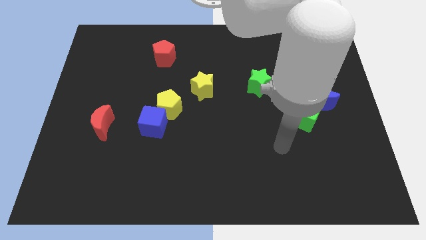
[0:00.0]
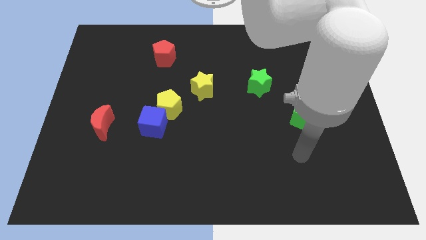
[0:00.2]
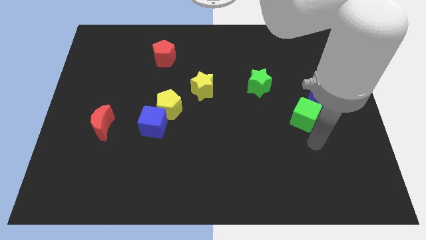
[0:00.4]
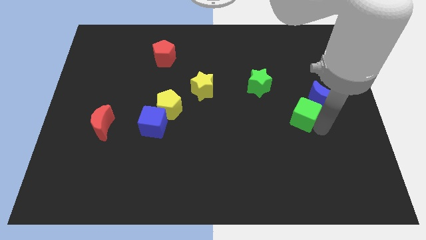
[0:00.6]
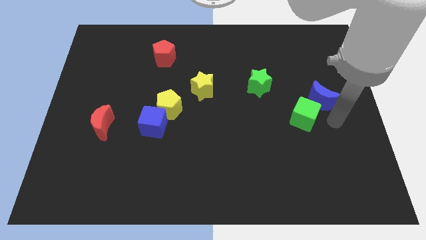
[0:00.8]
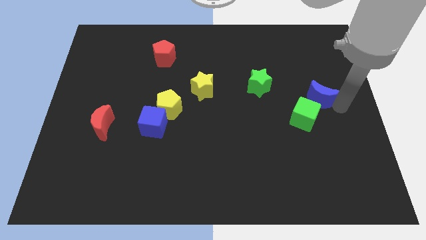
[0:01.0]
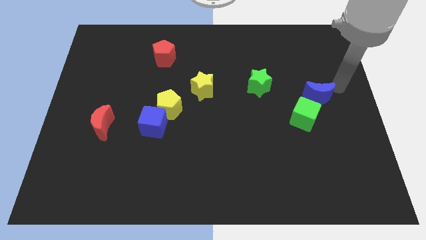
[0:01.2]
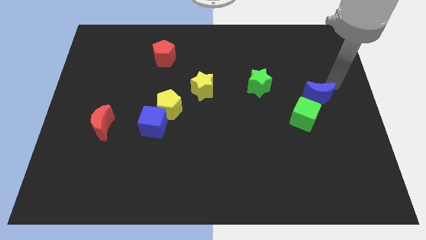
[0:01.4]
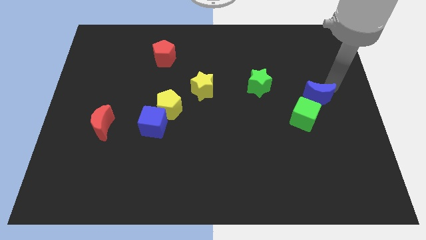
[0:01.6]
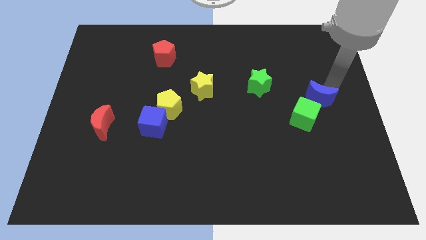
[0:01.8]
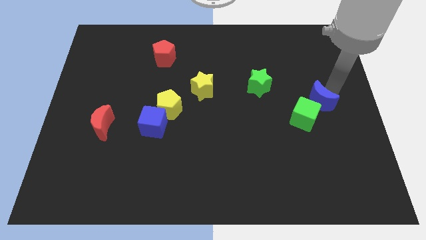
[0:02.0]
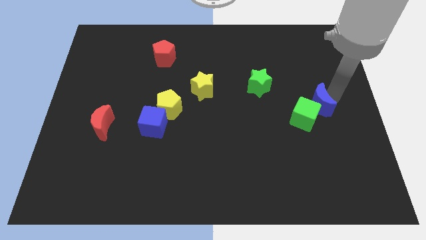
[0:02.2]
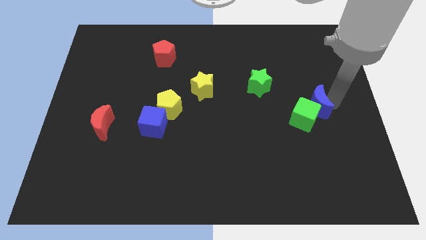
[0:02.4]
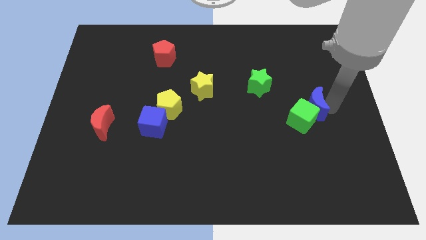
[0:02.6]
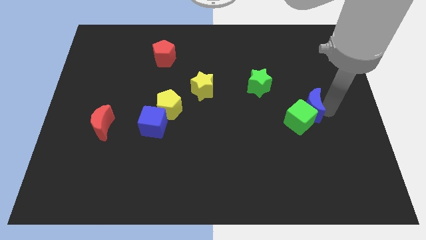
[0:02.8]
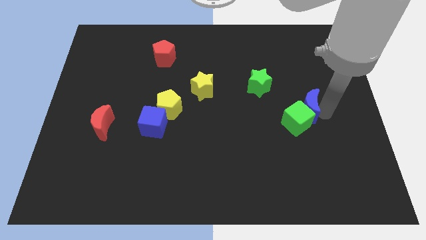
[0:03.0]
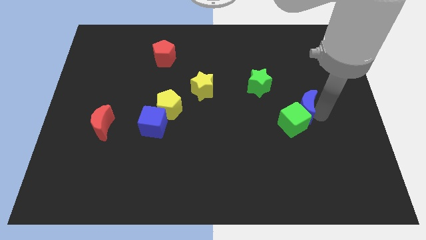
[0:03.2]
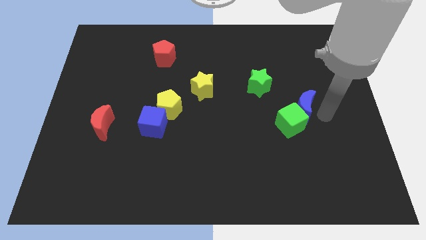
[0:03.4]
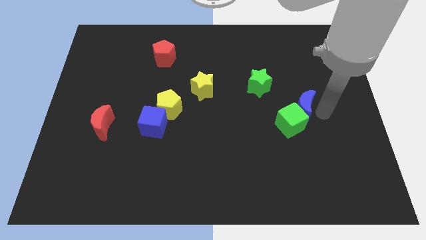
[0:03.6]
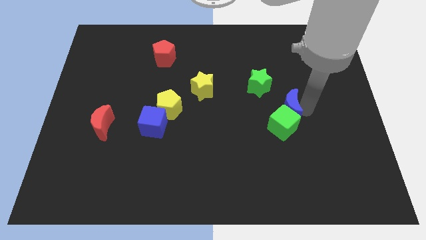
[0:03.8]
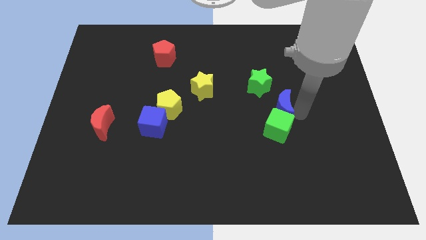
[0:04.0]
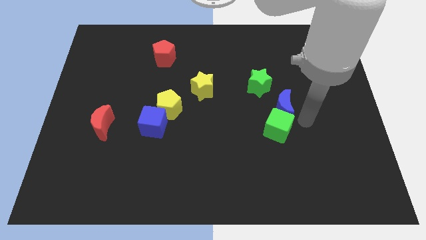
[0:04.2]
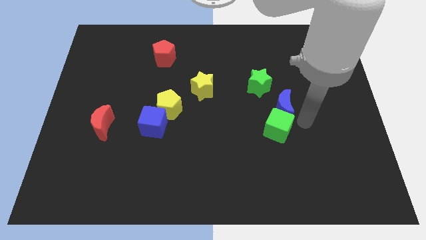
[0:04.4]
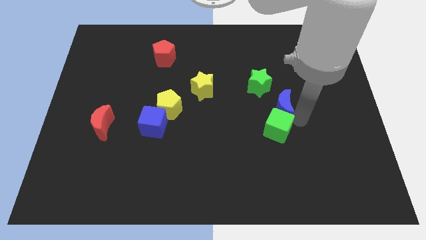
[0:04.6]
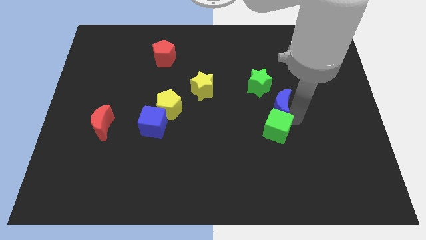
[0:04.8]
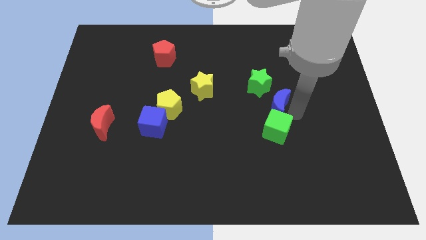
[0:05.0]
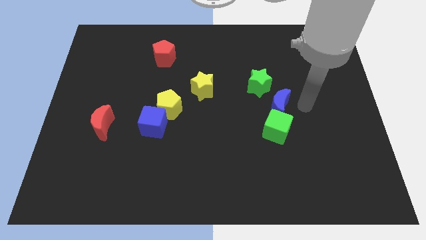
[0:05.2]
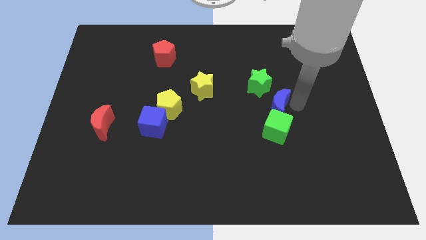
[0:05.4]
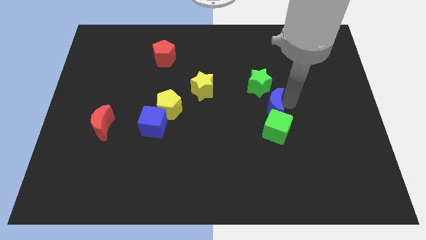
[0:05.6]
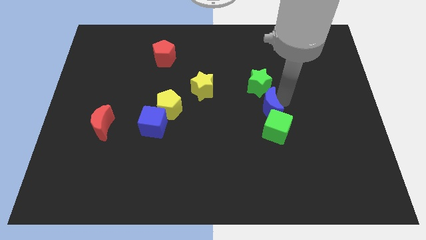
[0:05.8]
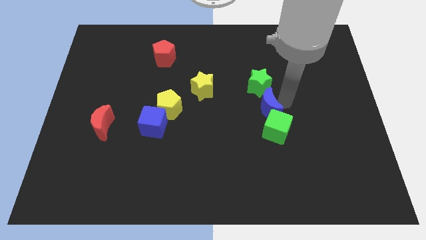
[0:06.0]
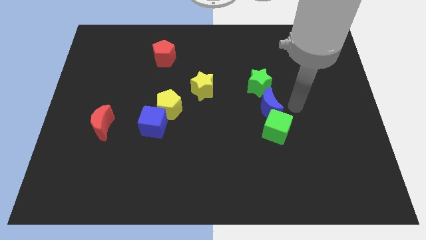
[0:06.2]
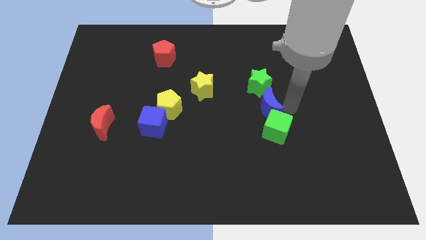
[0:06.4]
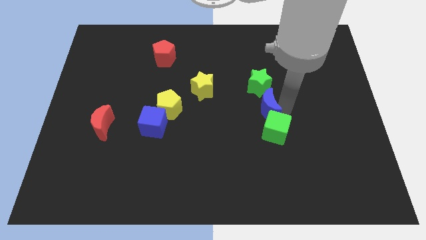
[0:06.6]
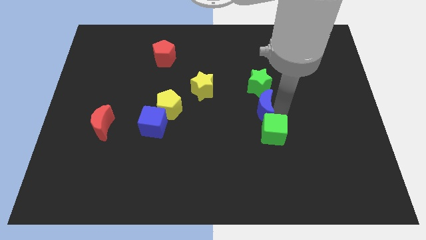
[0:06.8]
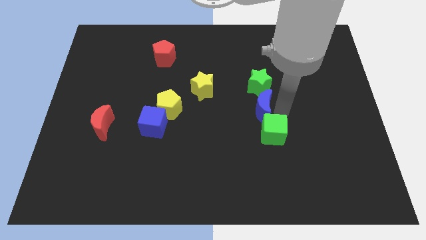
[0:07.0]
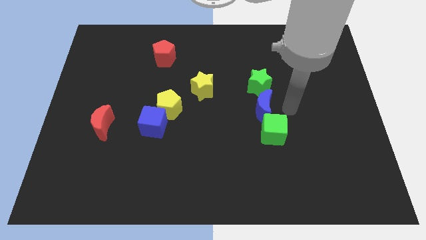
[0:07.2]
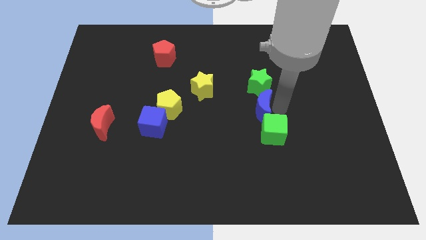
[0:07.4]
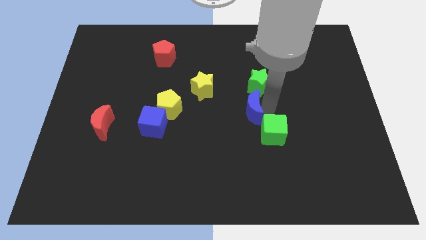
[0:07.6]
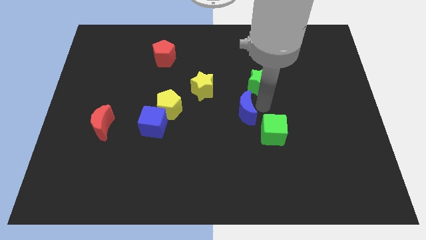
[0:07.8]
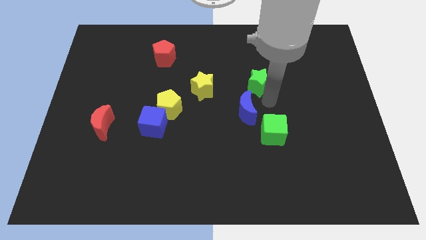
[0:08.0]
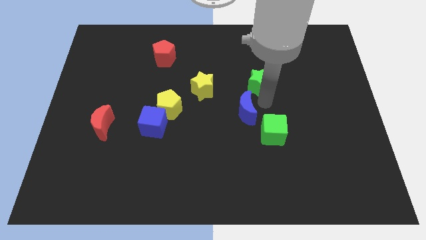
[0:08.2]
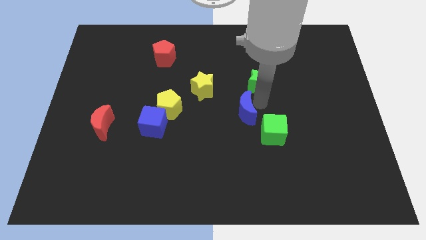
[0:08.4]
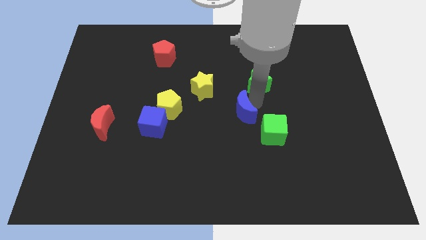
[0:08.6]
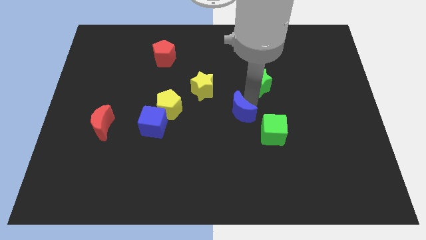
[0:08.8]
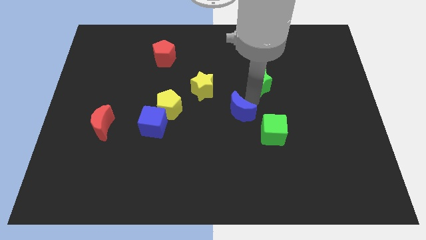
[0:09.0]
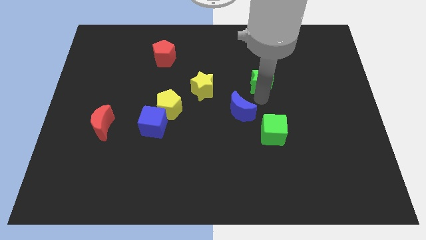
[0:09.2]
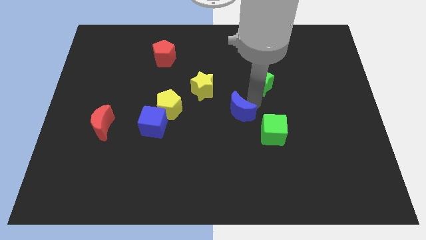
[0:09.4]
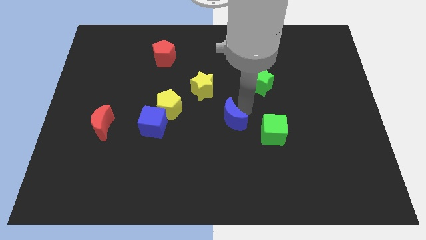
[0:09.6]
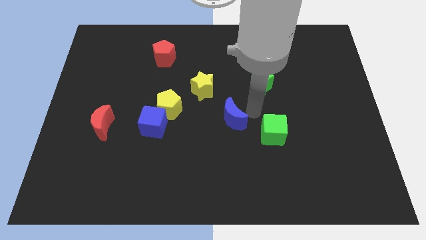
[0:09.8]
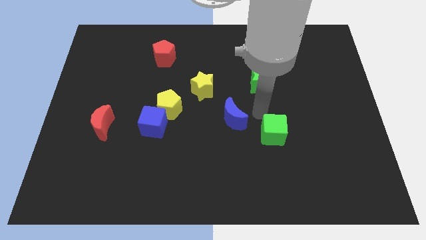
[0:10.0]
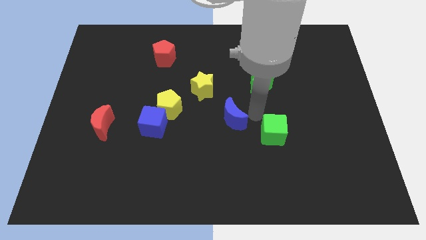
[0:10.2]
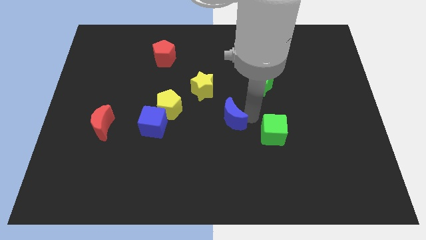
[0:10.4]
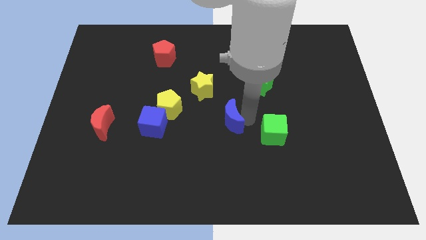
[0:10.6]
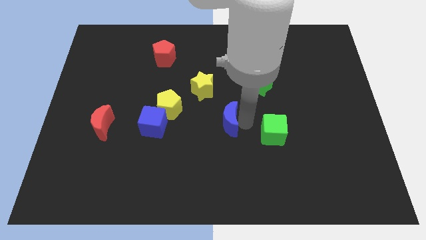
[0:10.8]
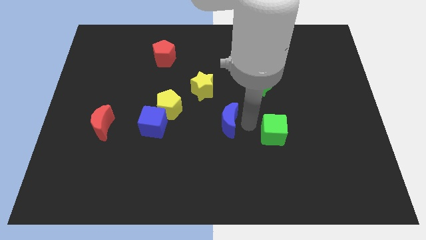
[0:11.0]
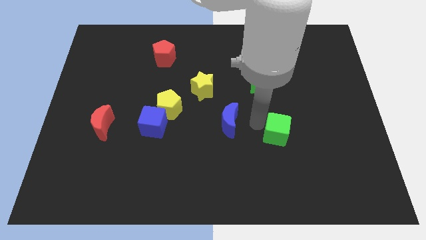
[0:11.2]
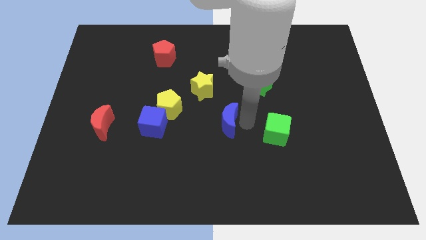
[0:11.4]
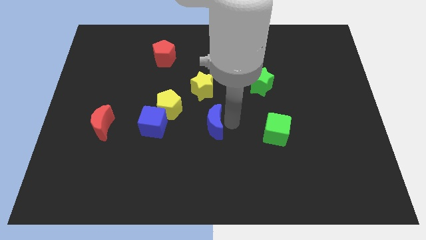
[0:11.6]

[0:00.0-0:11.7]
slide the blue moon diagonally down and to the right of the yellow pentagon
